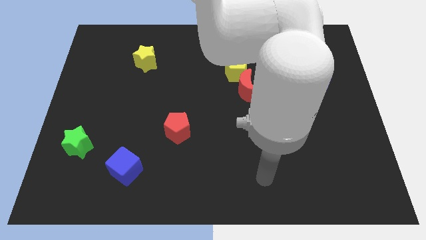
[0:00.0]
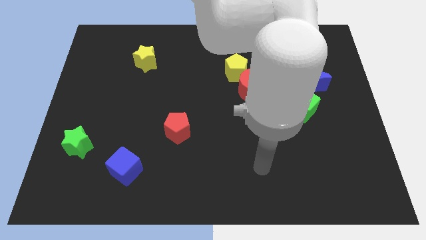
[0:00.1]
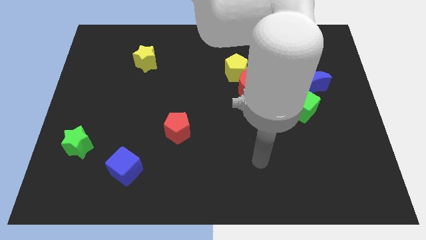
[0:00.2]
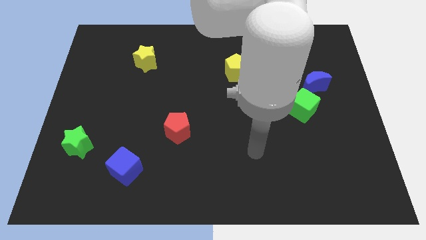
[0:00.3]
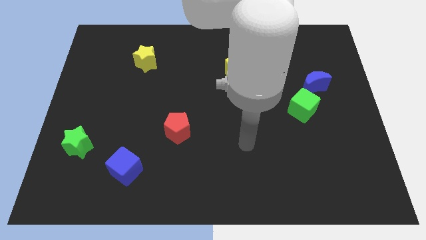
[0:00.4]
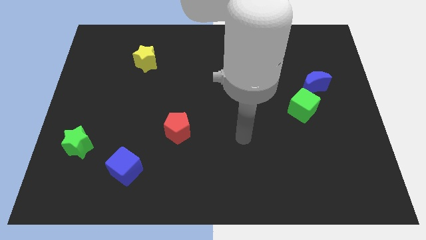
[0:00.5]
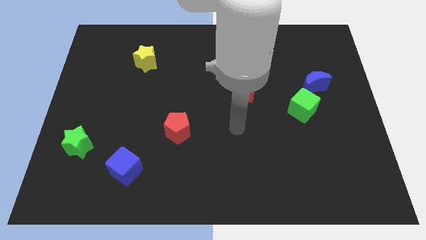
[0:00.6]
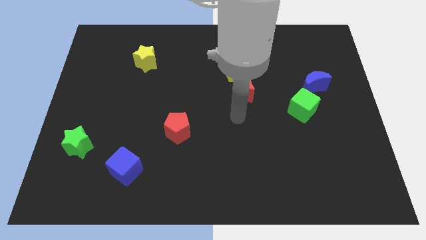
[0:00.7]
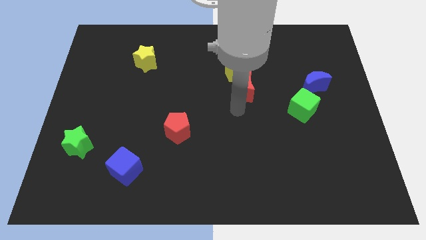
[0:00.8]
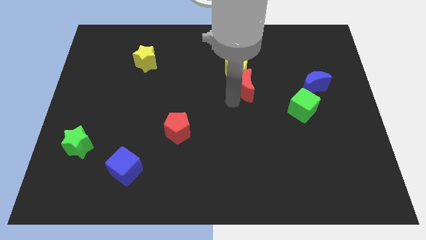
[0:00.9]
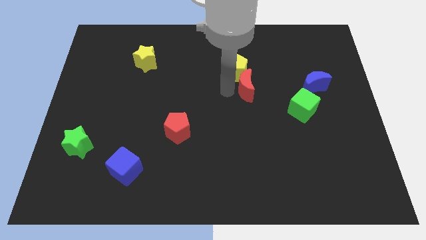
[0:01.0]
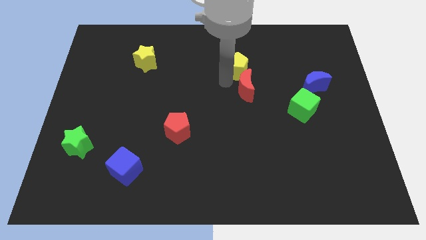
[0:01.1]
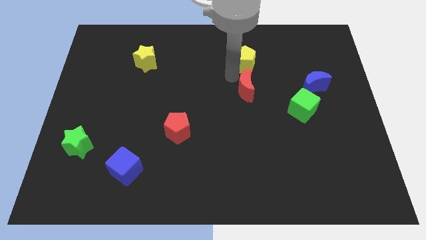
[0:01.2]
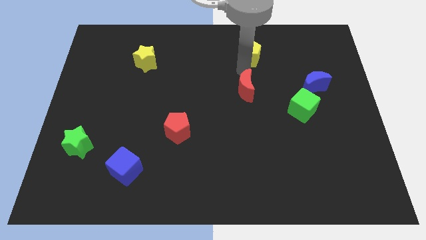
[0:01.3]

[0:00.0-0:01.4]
move the red moon away from the yellow pentagon

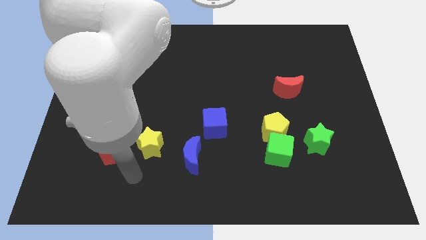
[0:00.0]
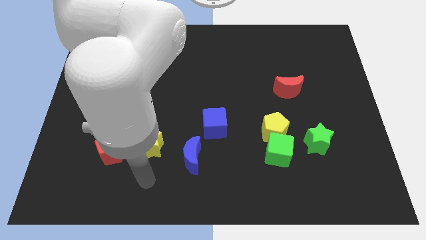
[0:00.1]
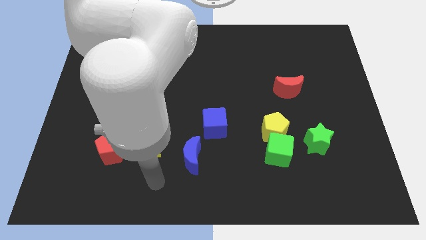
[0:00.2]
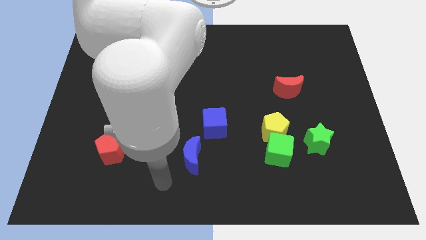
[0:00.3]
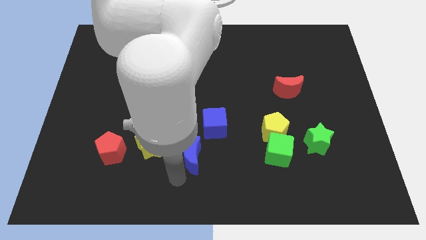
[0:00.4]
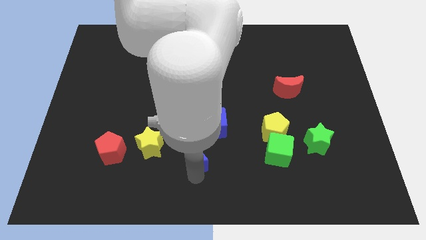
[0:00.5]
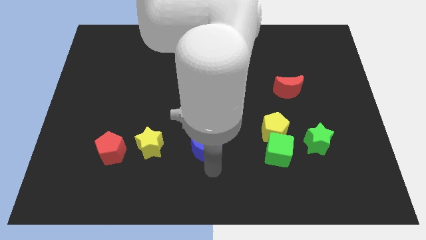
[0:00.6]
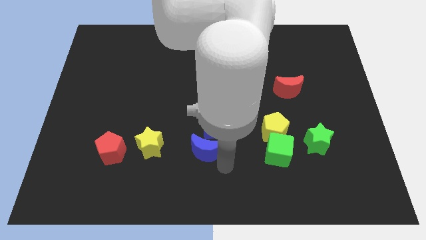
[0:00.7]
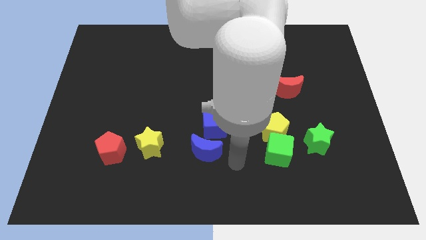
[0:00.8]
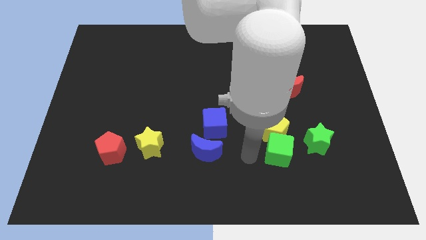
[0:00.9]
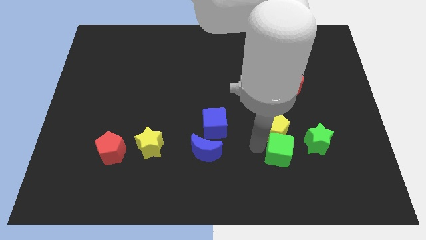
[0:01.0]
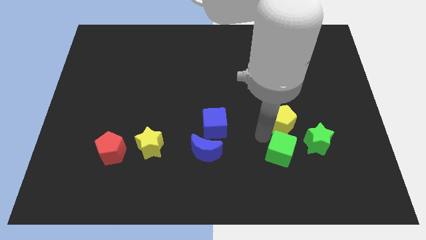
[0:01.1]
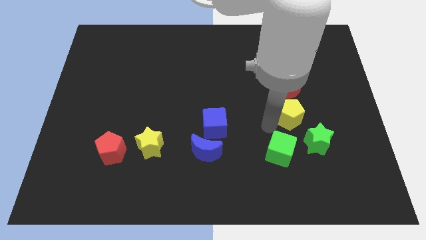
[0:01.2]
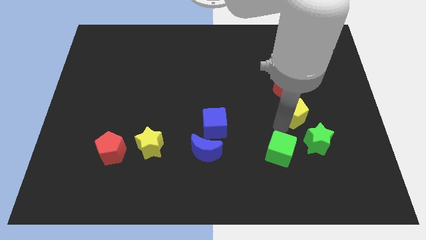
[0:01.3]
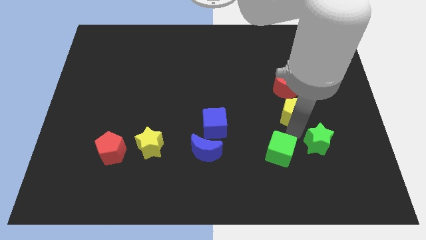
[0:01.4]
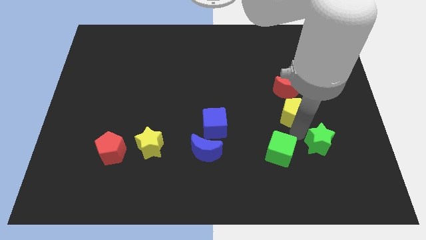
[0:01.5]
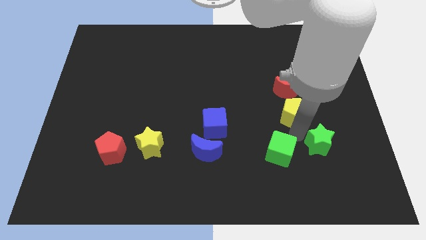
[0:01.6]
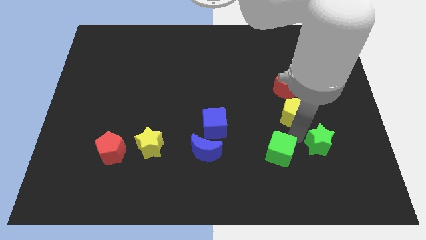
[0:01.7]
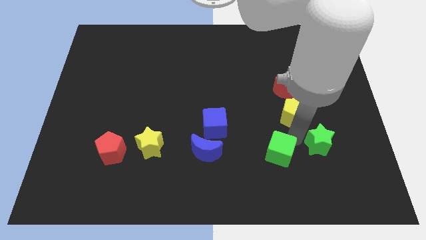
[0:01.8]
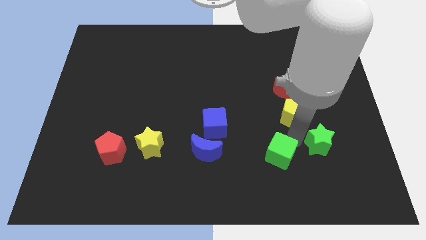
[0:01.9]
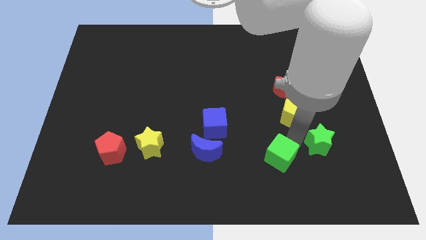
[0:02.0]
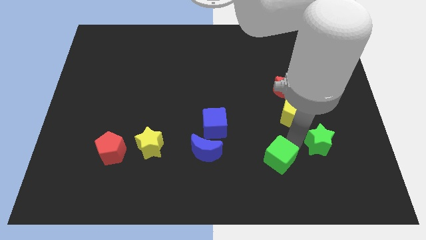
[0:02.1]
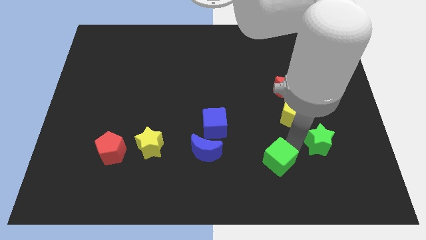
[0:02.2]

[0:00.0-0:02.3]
pull the green cube apart from the yellow pentagon and green star

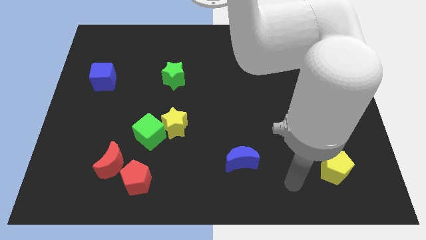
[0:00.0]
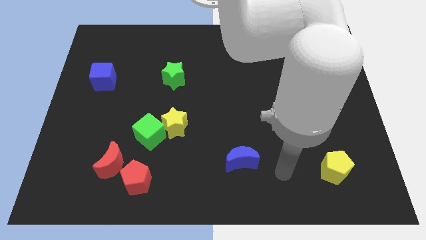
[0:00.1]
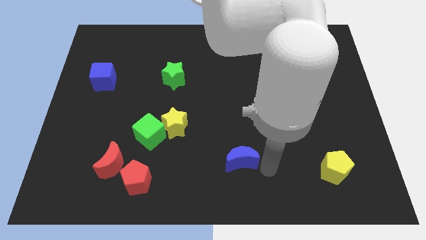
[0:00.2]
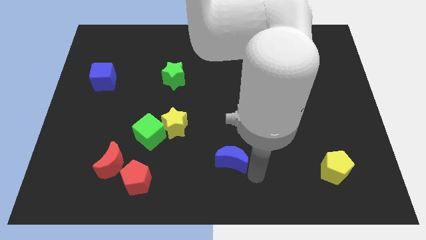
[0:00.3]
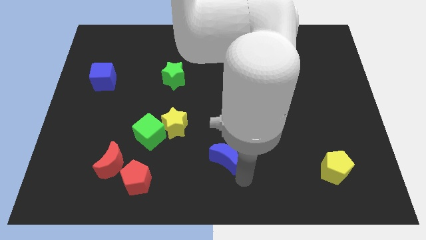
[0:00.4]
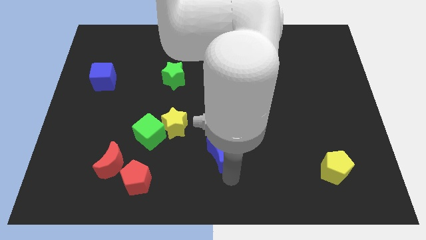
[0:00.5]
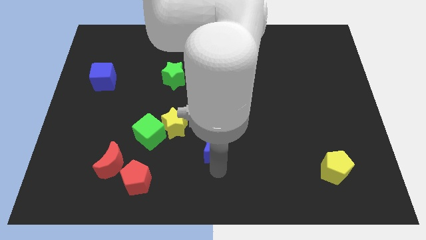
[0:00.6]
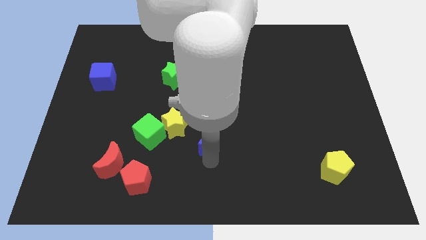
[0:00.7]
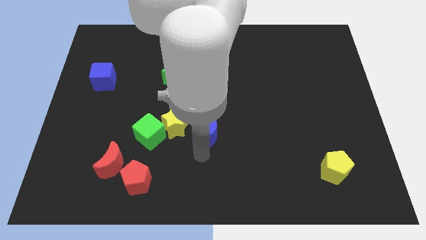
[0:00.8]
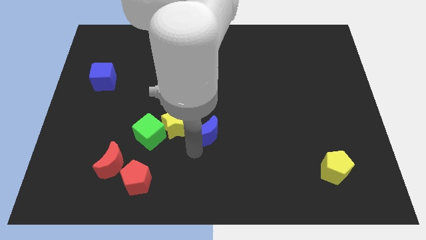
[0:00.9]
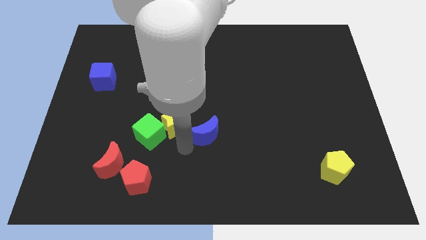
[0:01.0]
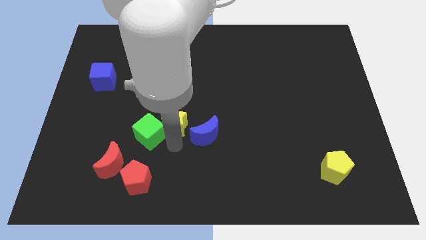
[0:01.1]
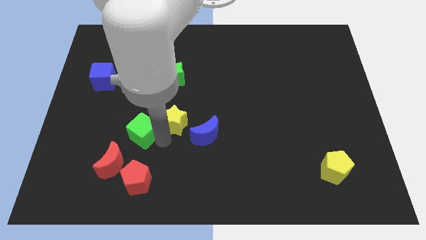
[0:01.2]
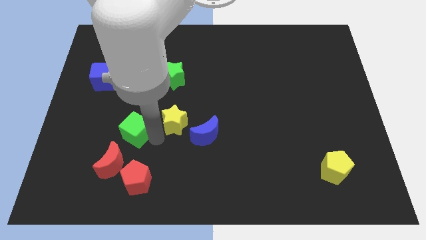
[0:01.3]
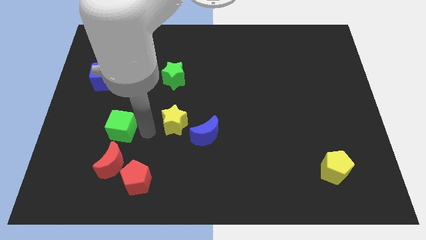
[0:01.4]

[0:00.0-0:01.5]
move the yellow star away from the green cube

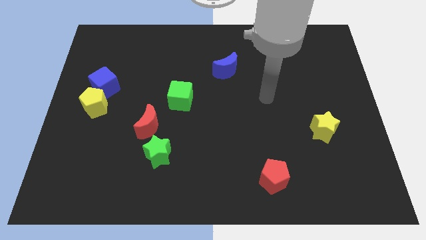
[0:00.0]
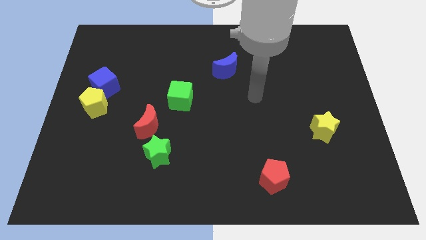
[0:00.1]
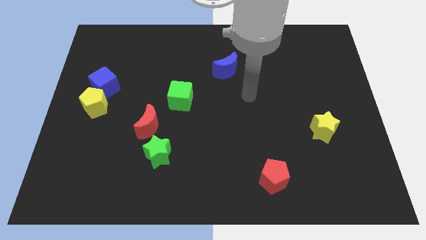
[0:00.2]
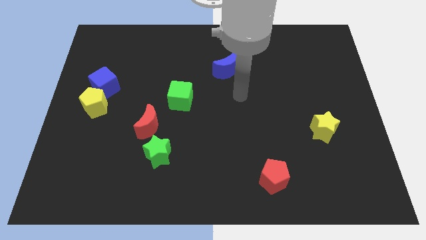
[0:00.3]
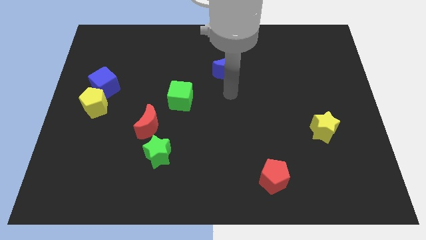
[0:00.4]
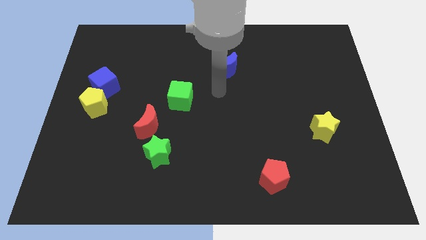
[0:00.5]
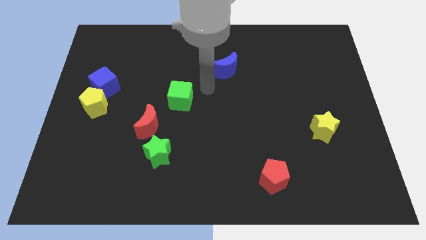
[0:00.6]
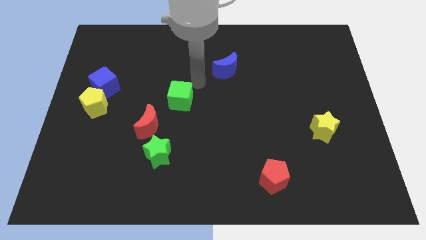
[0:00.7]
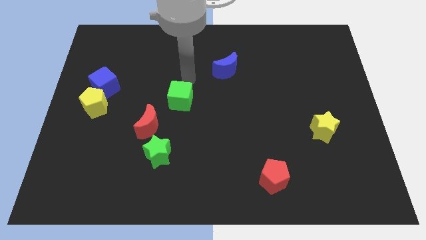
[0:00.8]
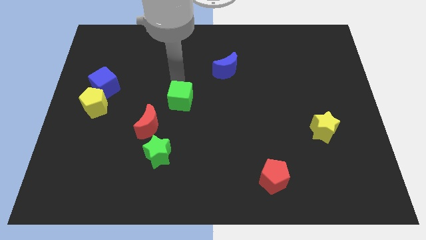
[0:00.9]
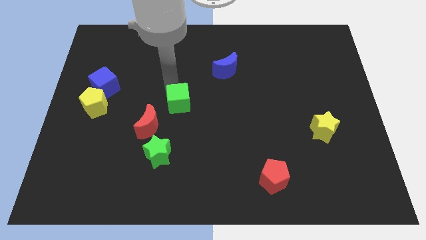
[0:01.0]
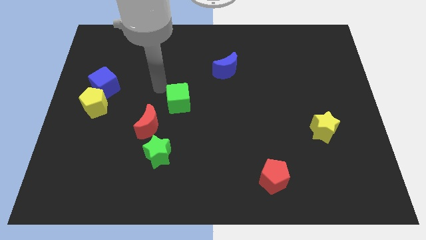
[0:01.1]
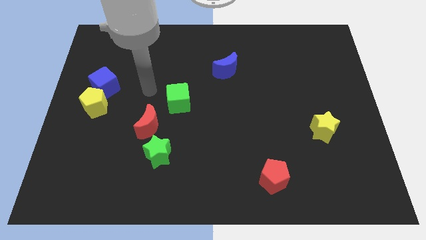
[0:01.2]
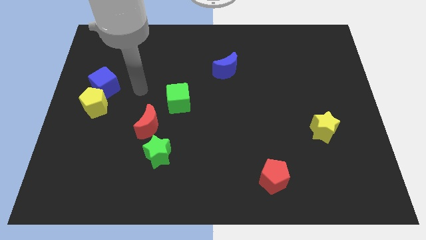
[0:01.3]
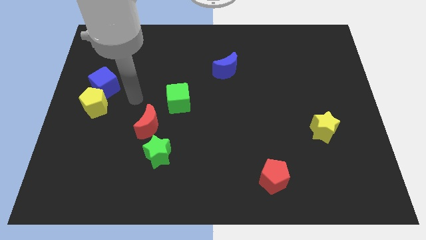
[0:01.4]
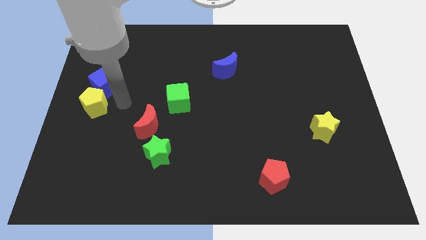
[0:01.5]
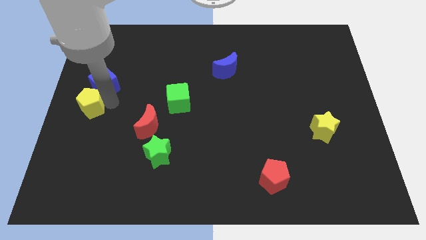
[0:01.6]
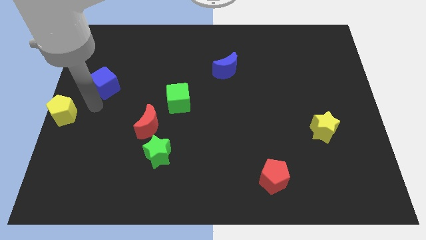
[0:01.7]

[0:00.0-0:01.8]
separate the blue cube from the yellow pentagon

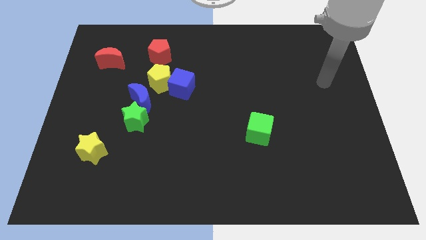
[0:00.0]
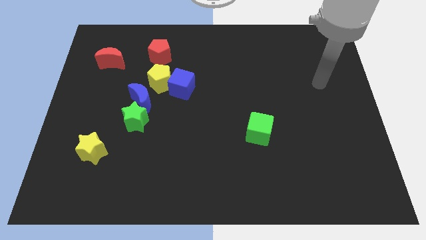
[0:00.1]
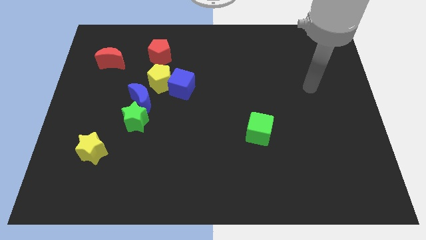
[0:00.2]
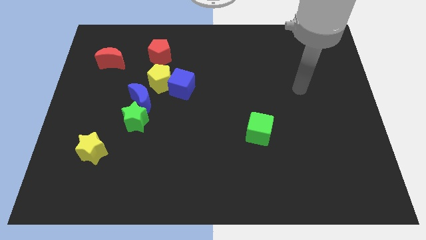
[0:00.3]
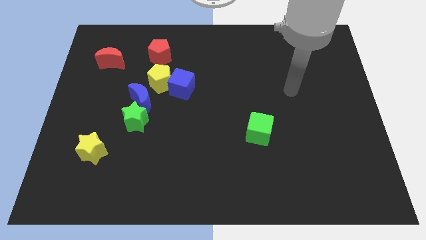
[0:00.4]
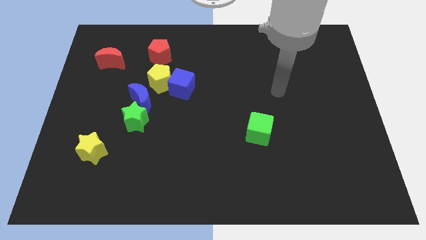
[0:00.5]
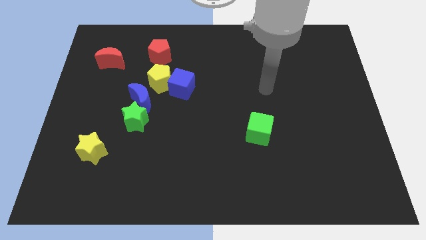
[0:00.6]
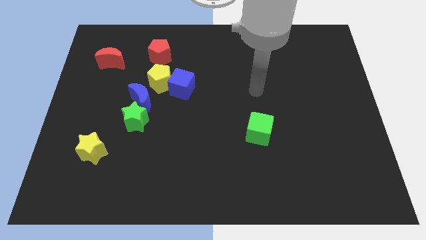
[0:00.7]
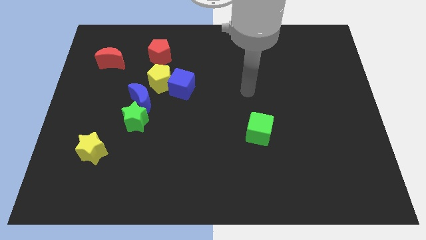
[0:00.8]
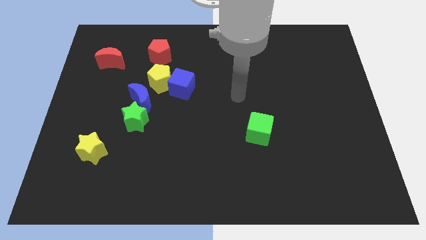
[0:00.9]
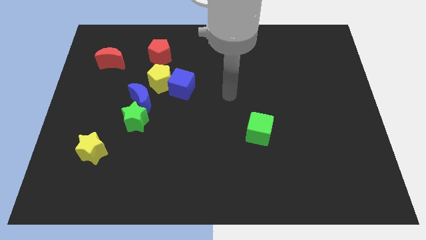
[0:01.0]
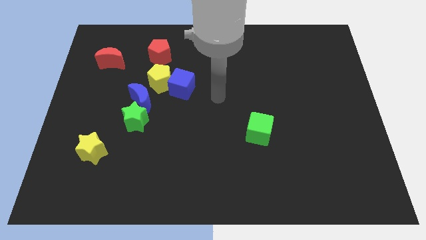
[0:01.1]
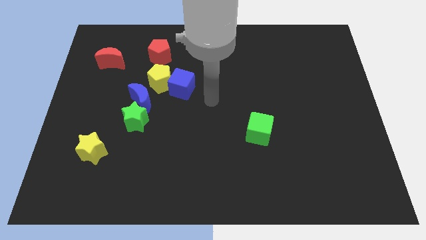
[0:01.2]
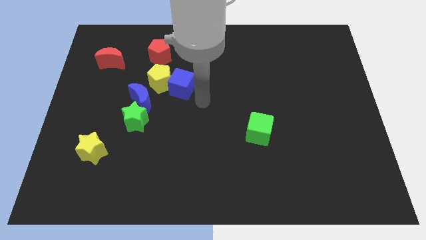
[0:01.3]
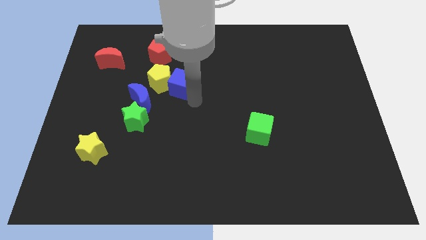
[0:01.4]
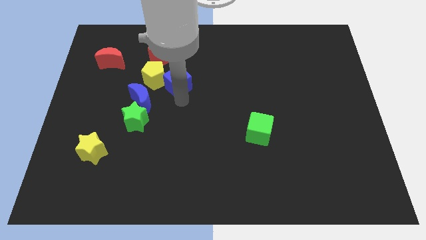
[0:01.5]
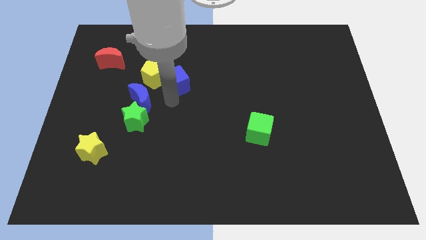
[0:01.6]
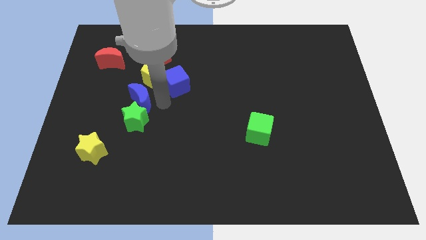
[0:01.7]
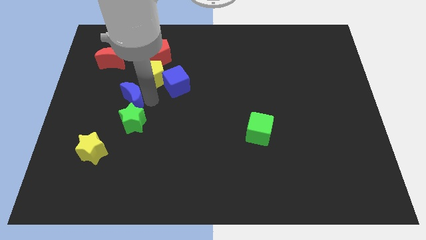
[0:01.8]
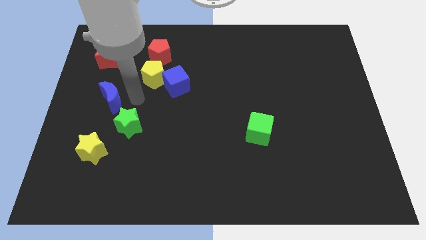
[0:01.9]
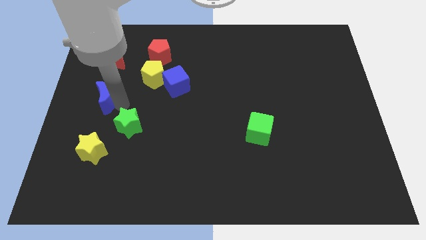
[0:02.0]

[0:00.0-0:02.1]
separate the green star from the blue moon
